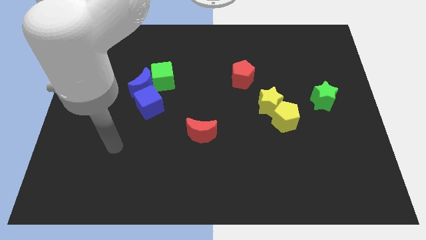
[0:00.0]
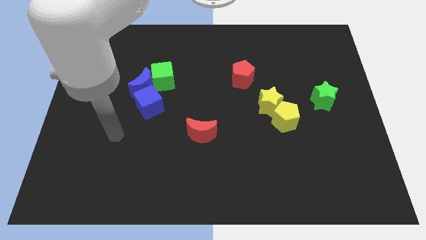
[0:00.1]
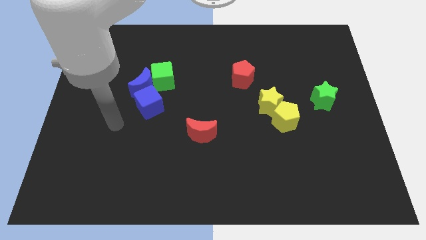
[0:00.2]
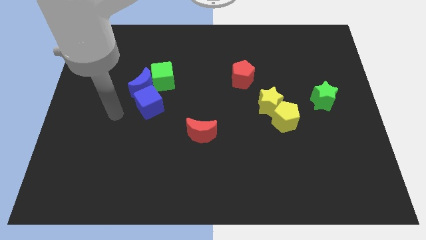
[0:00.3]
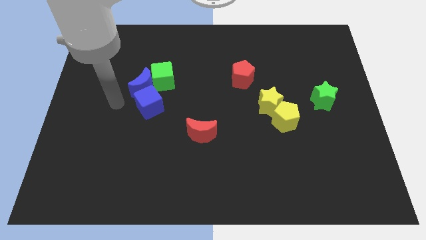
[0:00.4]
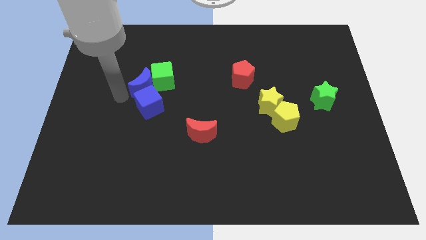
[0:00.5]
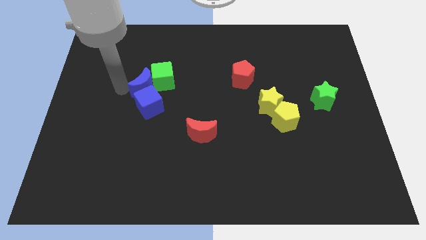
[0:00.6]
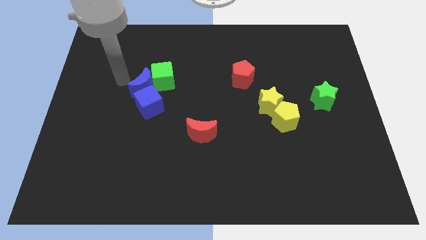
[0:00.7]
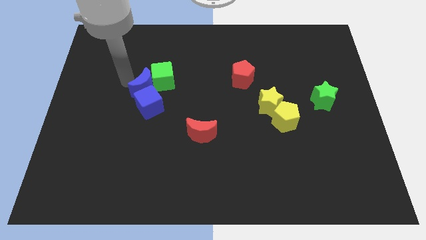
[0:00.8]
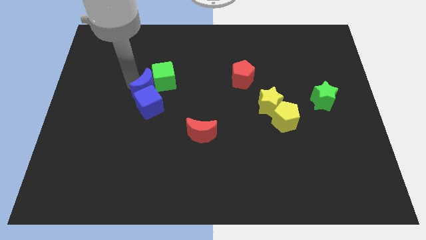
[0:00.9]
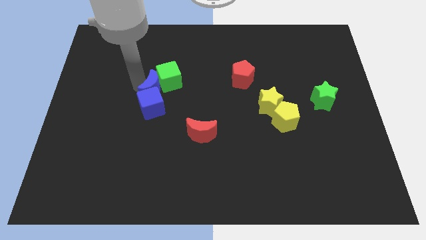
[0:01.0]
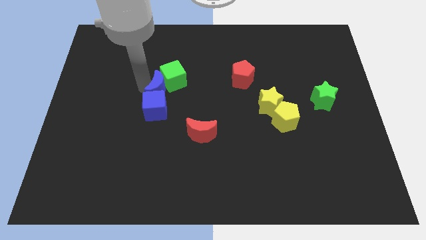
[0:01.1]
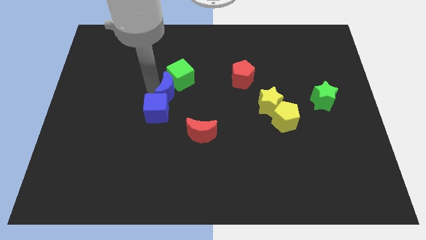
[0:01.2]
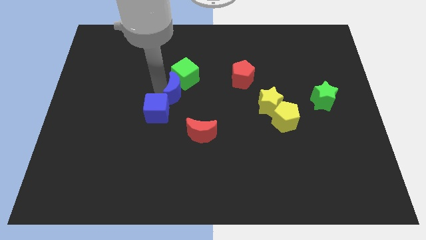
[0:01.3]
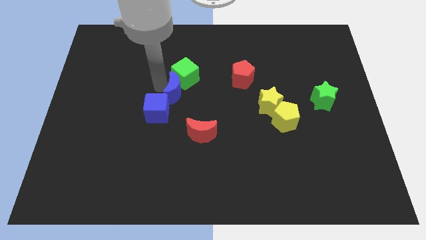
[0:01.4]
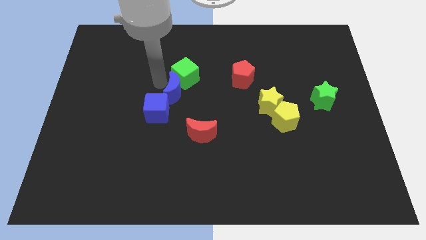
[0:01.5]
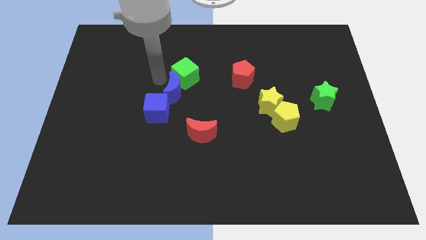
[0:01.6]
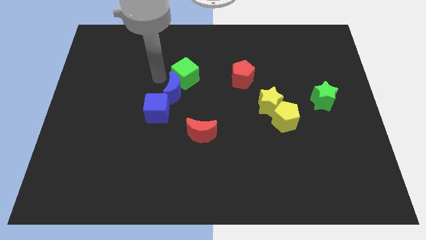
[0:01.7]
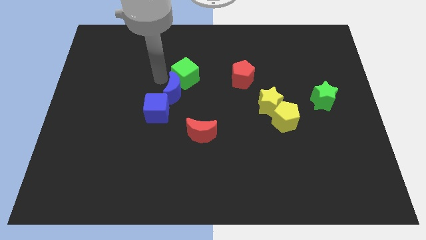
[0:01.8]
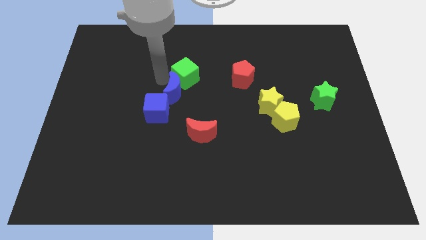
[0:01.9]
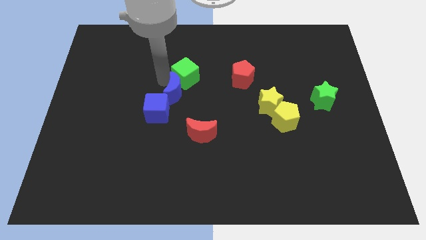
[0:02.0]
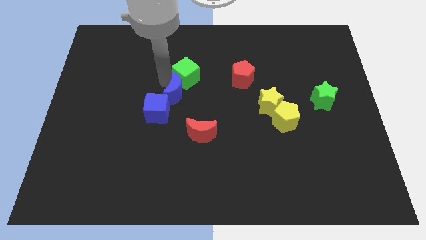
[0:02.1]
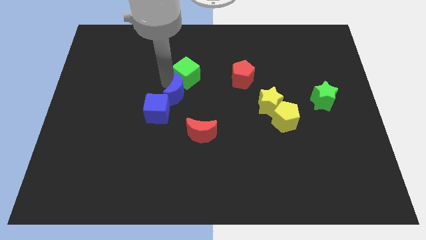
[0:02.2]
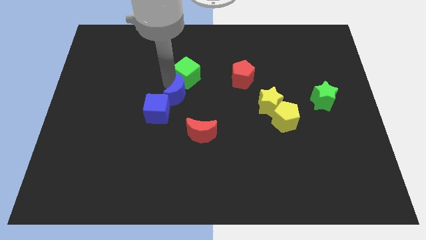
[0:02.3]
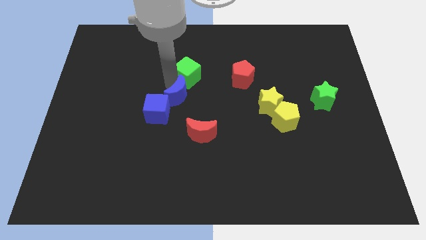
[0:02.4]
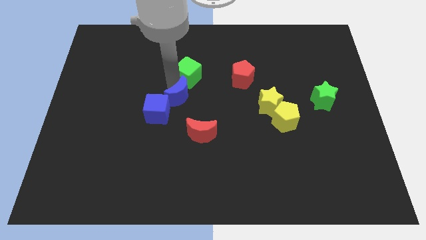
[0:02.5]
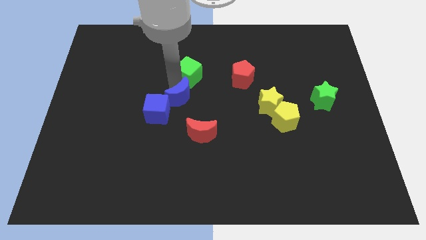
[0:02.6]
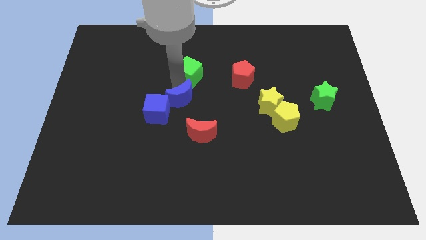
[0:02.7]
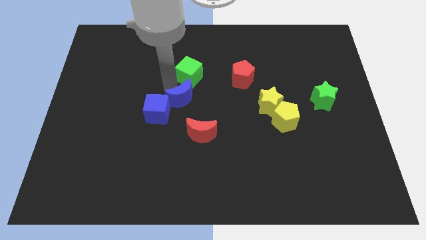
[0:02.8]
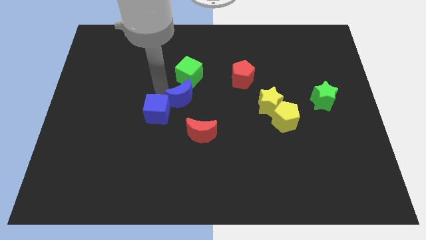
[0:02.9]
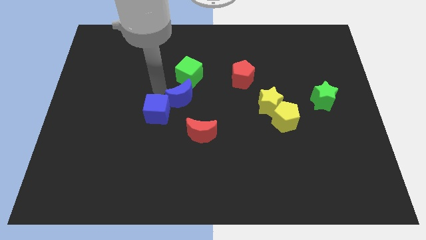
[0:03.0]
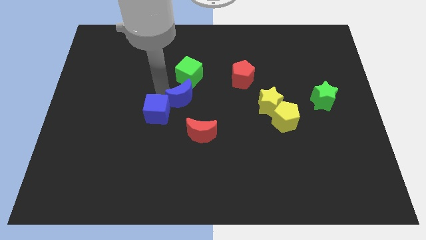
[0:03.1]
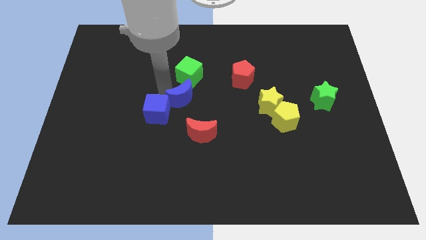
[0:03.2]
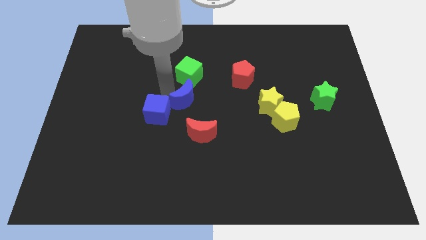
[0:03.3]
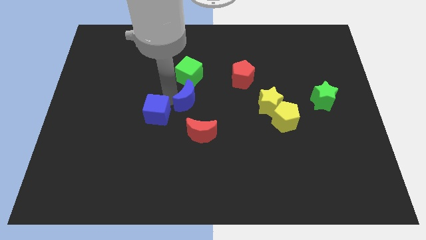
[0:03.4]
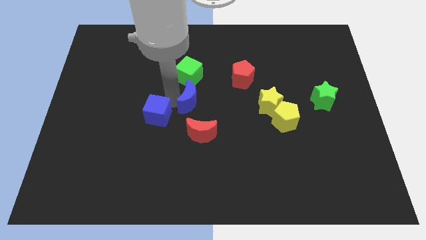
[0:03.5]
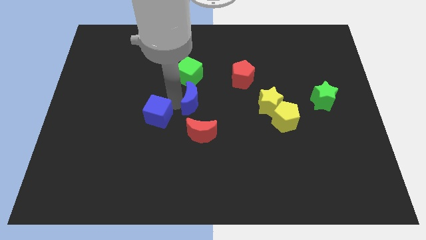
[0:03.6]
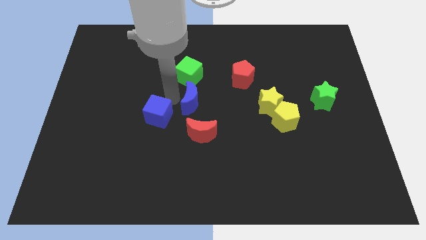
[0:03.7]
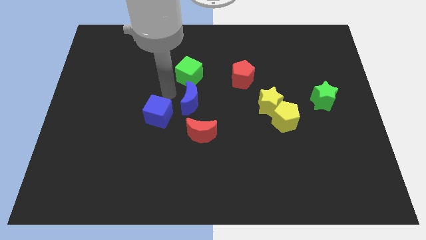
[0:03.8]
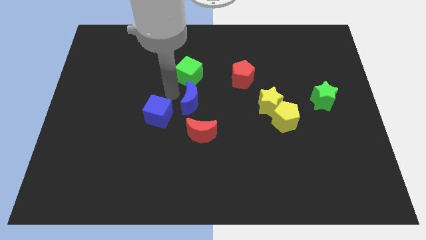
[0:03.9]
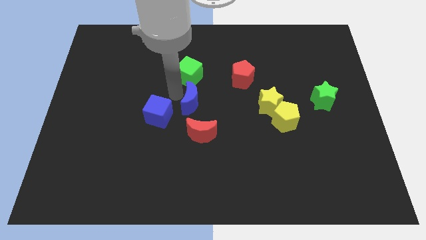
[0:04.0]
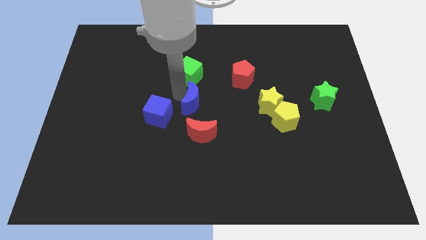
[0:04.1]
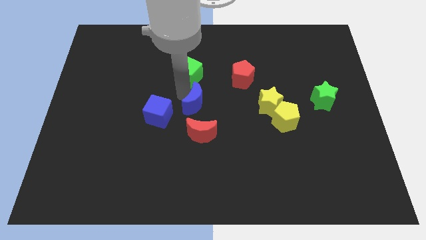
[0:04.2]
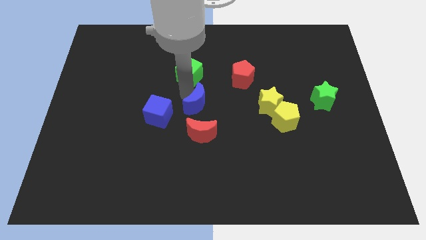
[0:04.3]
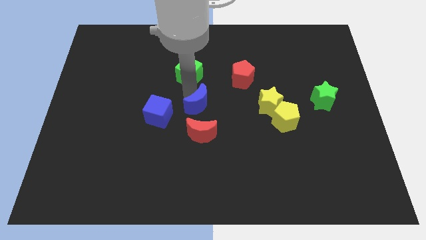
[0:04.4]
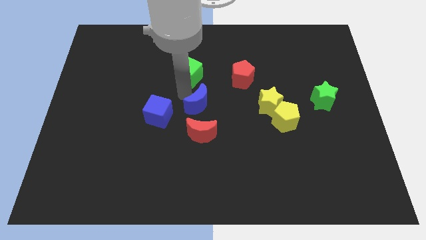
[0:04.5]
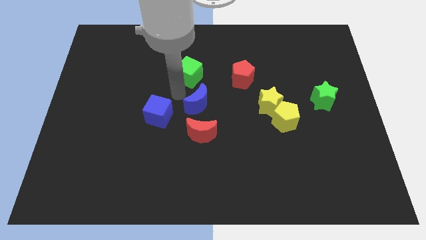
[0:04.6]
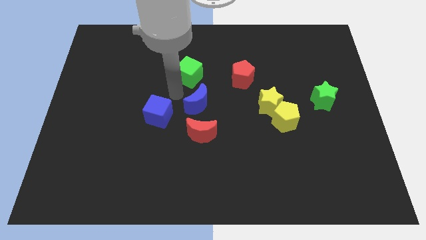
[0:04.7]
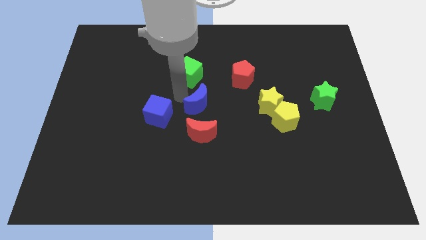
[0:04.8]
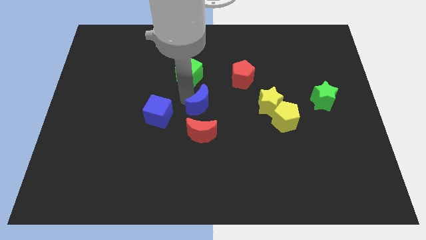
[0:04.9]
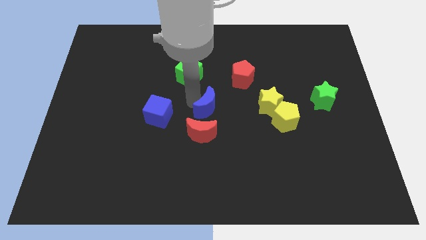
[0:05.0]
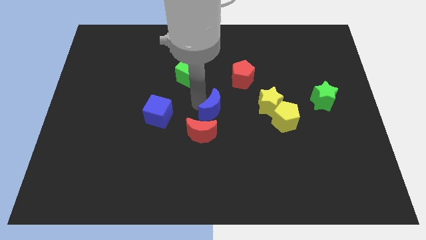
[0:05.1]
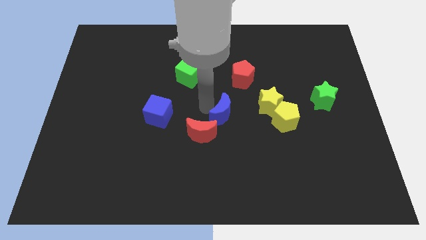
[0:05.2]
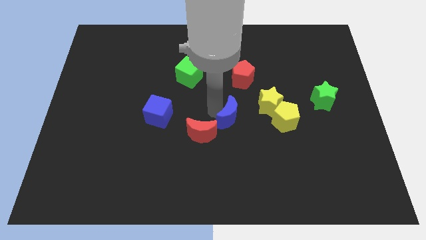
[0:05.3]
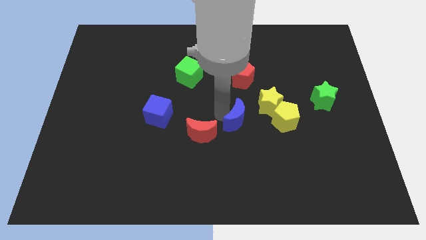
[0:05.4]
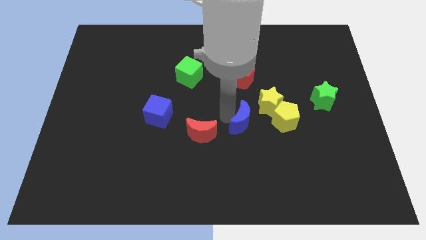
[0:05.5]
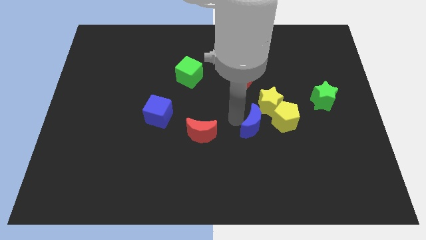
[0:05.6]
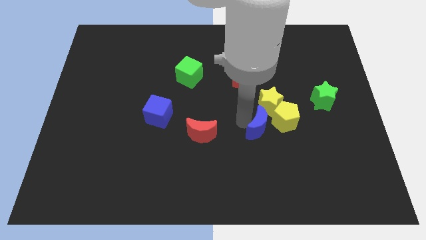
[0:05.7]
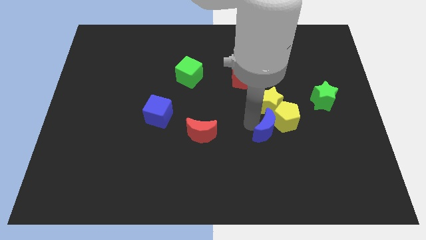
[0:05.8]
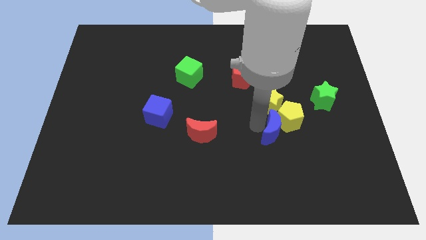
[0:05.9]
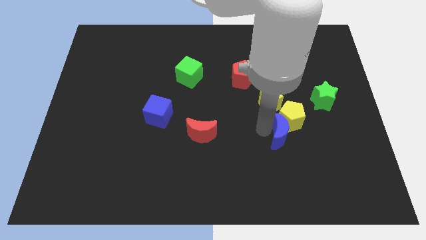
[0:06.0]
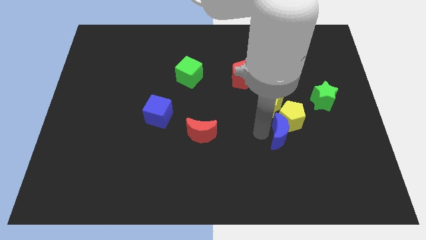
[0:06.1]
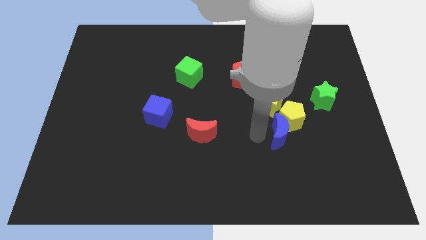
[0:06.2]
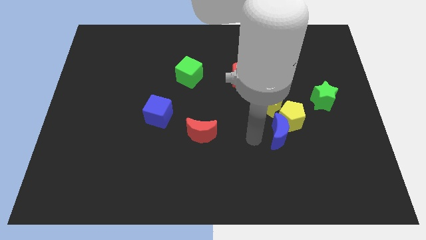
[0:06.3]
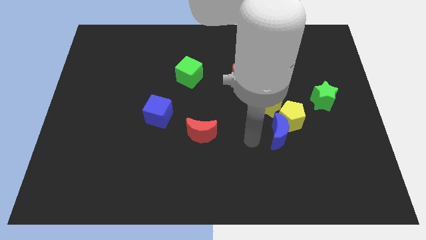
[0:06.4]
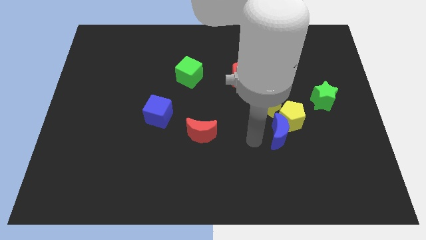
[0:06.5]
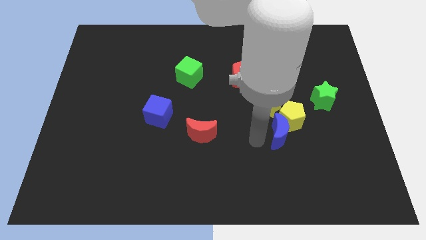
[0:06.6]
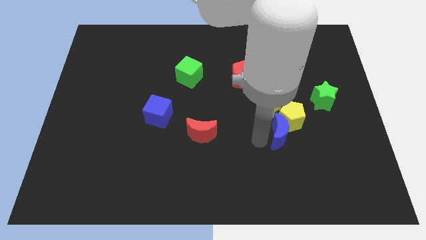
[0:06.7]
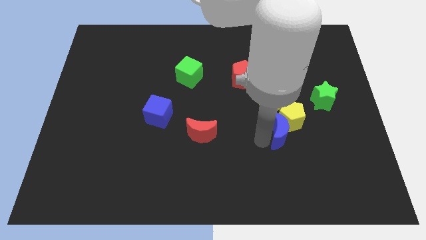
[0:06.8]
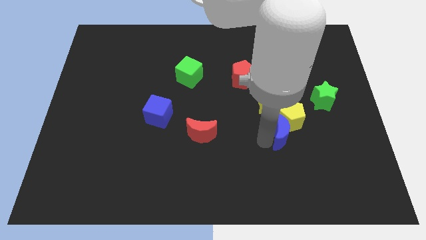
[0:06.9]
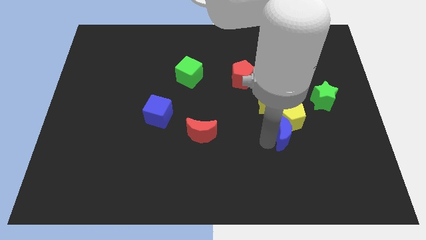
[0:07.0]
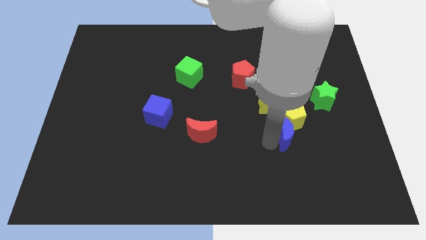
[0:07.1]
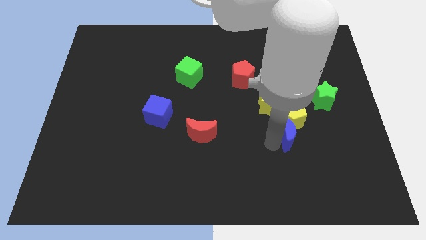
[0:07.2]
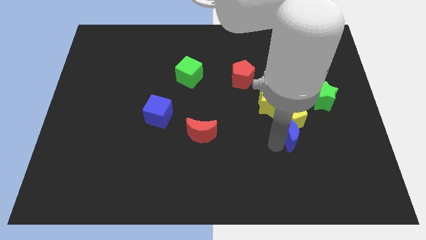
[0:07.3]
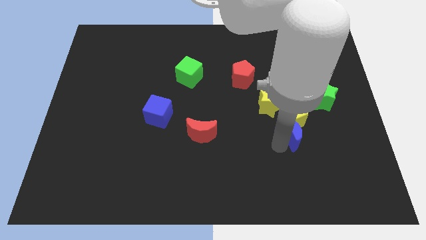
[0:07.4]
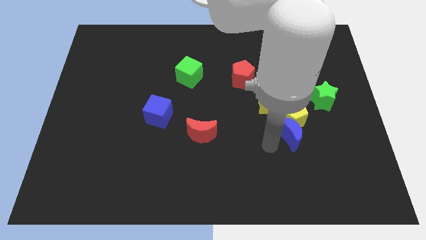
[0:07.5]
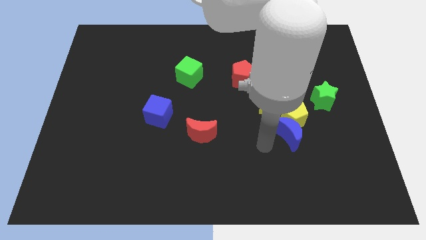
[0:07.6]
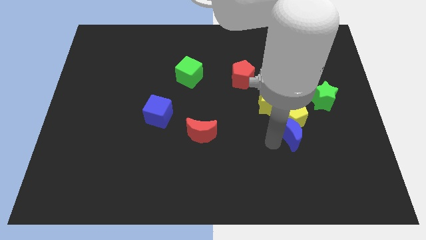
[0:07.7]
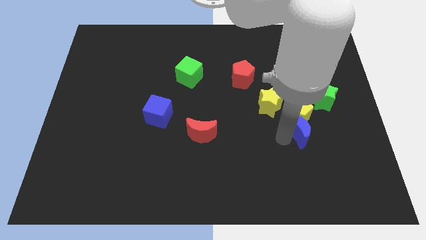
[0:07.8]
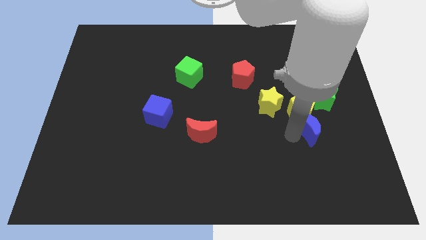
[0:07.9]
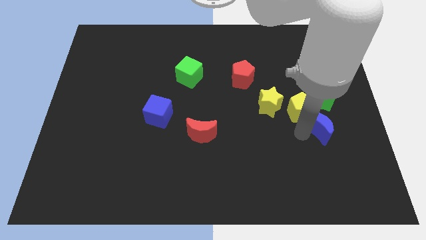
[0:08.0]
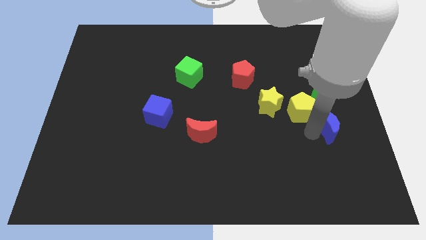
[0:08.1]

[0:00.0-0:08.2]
put the blue moon to the right side of the yellow pentagon

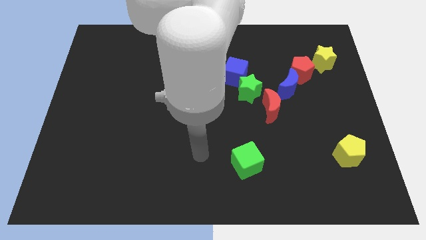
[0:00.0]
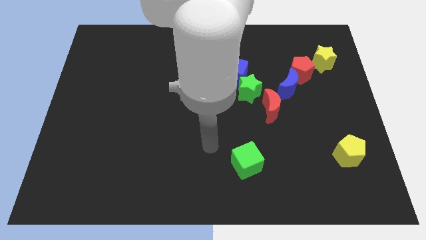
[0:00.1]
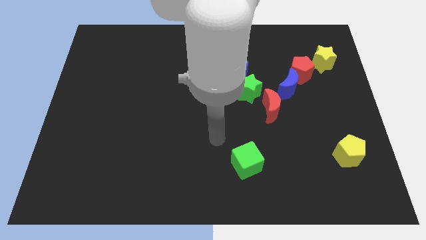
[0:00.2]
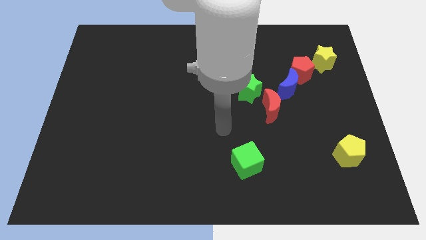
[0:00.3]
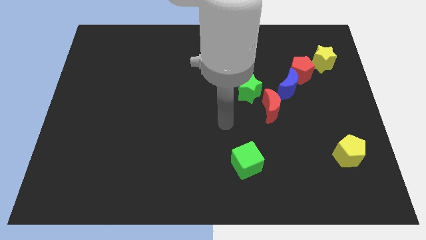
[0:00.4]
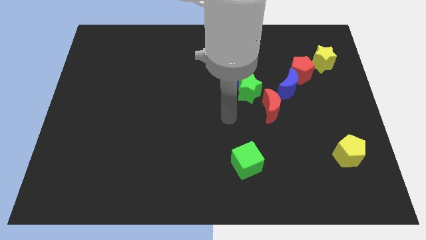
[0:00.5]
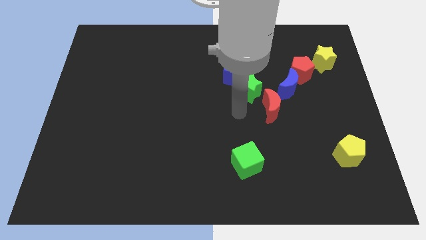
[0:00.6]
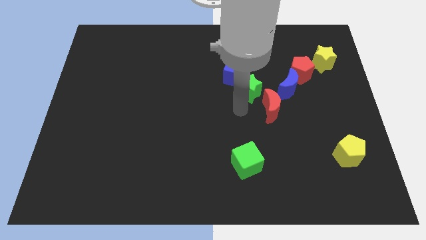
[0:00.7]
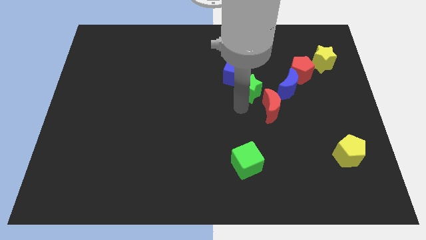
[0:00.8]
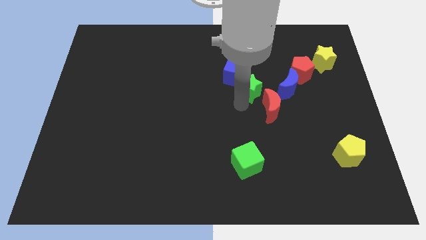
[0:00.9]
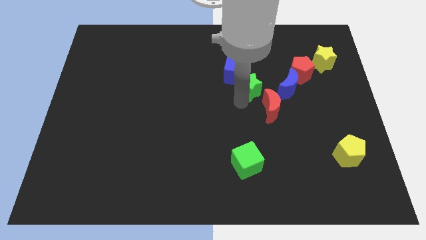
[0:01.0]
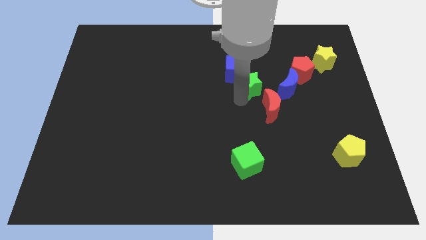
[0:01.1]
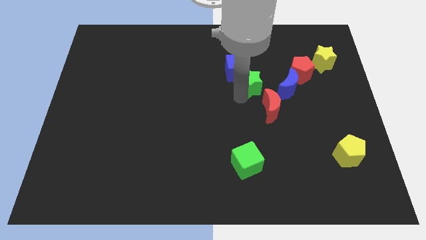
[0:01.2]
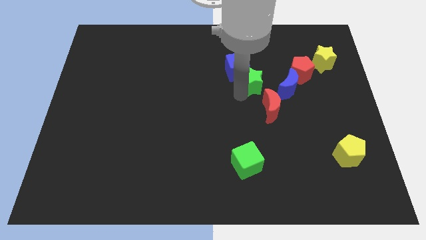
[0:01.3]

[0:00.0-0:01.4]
push the green star to the left of the red pentagon
